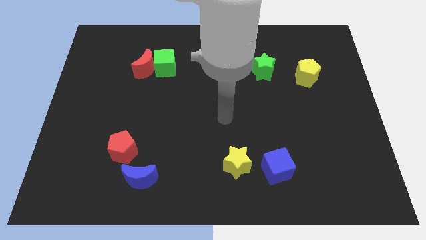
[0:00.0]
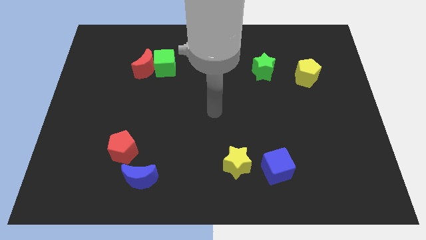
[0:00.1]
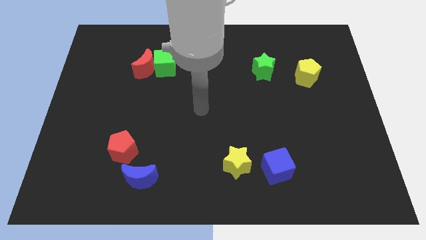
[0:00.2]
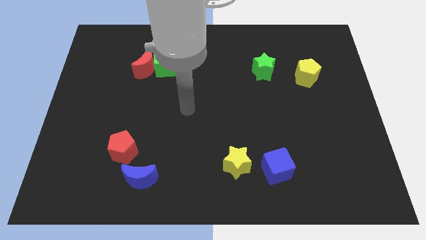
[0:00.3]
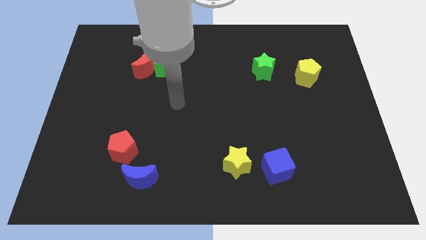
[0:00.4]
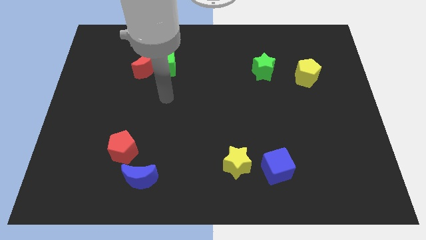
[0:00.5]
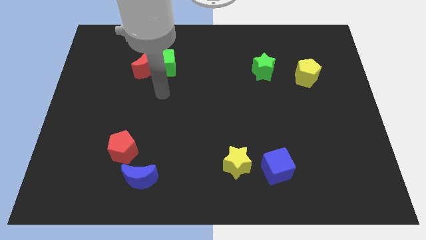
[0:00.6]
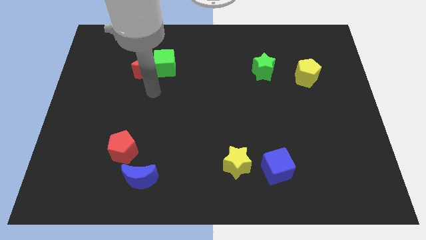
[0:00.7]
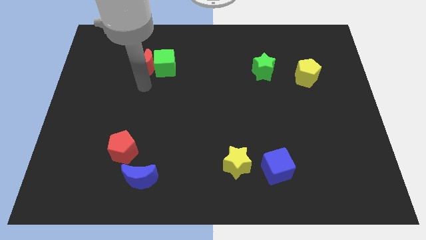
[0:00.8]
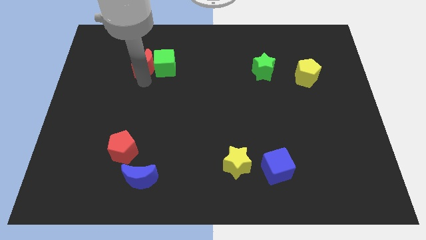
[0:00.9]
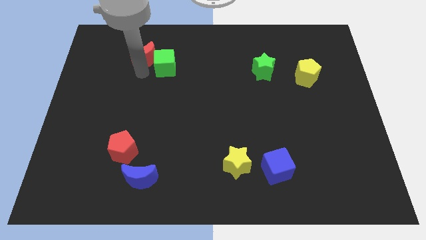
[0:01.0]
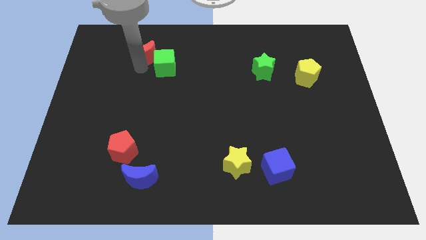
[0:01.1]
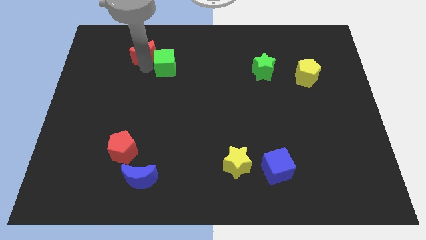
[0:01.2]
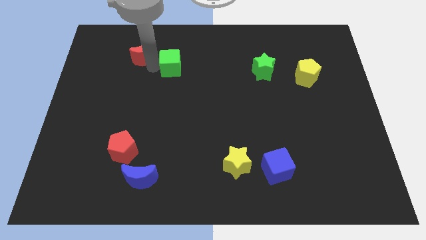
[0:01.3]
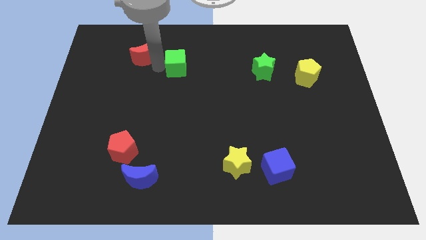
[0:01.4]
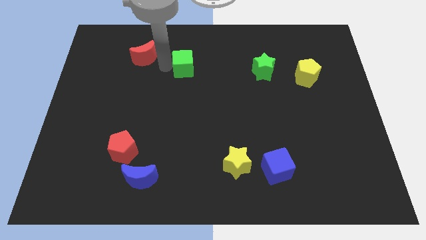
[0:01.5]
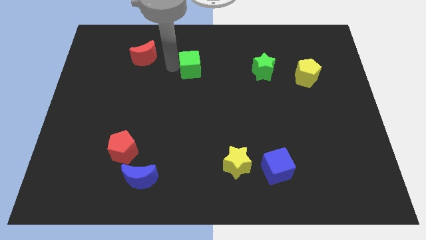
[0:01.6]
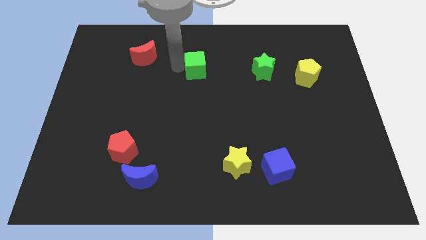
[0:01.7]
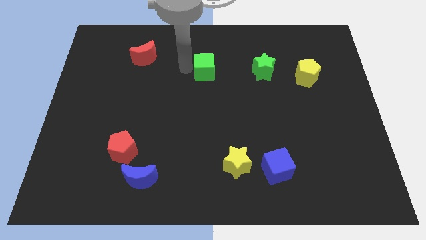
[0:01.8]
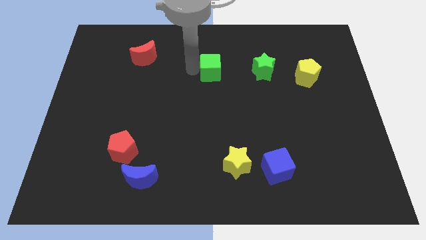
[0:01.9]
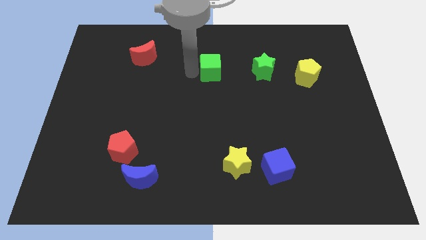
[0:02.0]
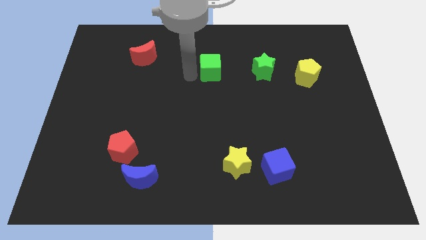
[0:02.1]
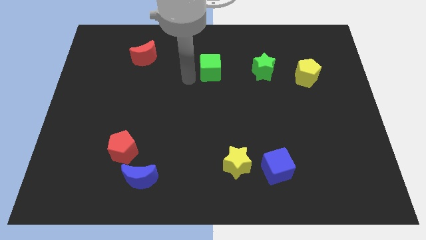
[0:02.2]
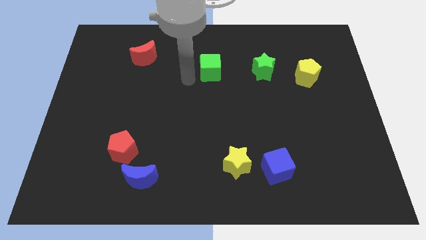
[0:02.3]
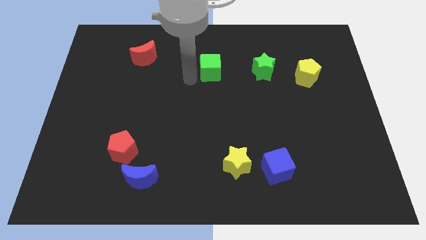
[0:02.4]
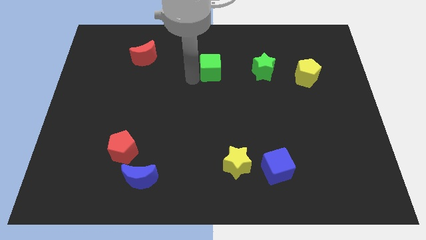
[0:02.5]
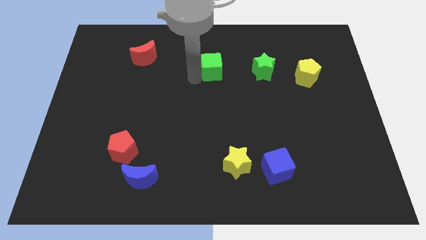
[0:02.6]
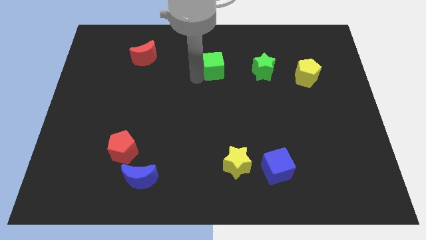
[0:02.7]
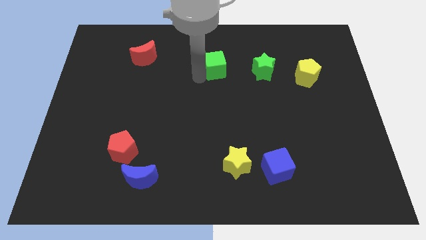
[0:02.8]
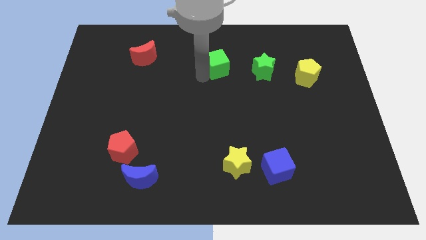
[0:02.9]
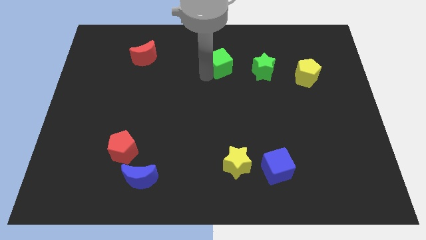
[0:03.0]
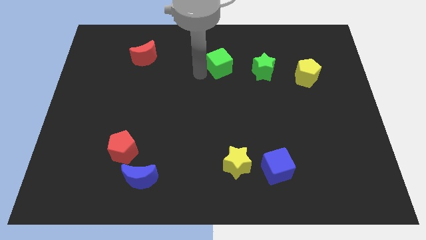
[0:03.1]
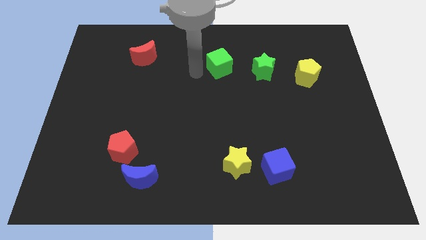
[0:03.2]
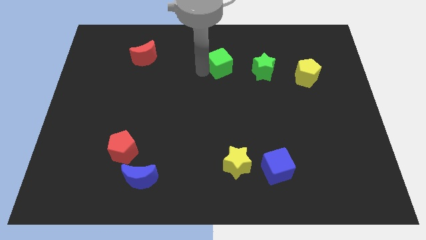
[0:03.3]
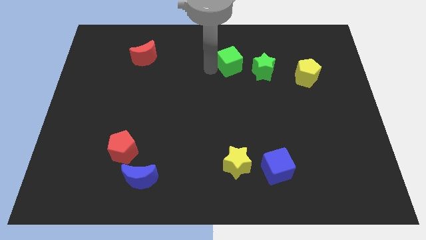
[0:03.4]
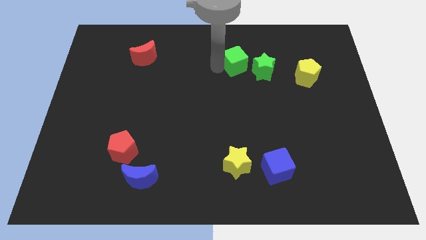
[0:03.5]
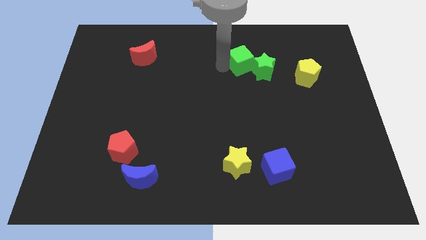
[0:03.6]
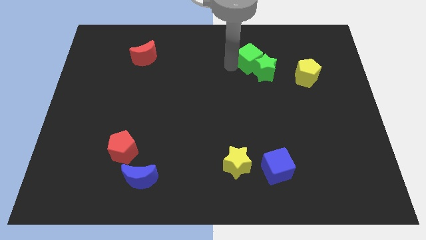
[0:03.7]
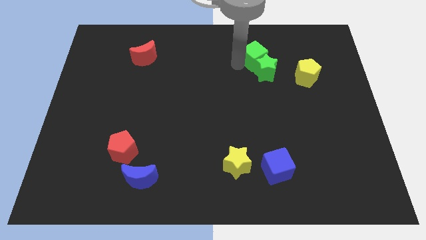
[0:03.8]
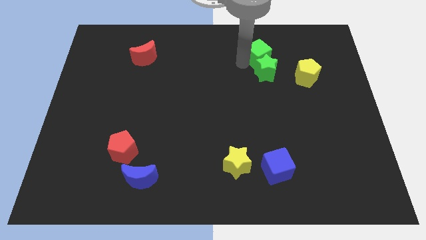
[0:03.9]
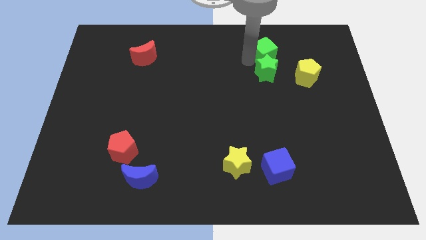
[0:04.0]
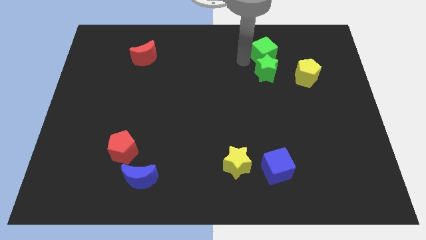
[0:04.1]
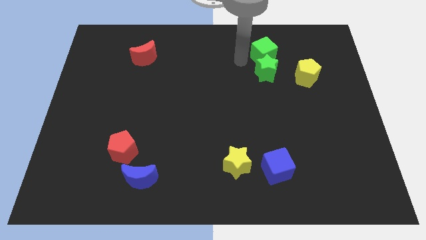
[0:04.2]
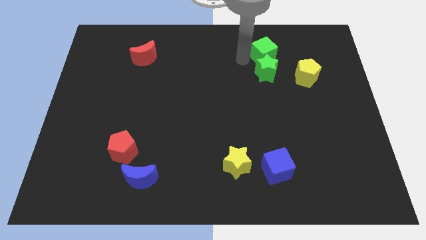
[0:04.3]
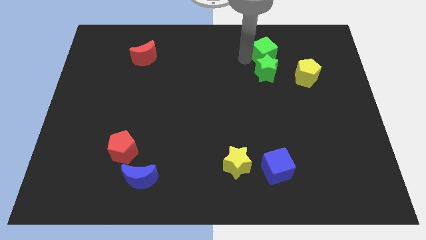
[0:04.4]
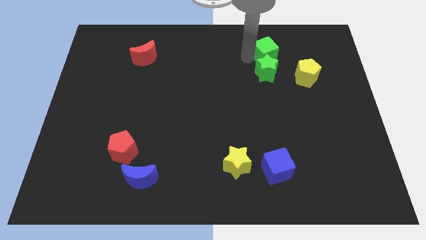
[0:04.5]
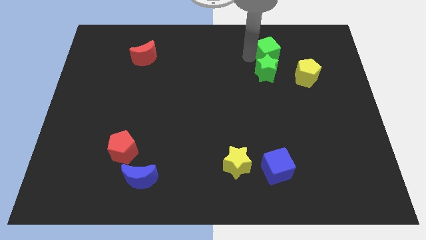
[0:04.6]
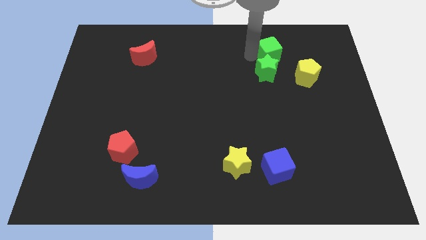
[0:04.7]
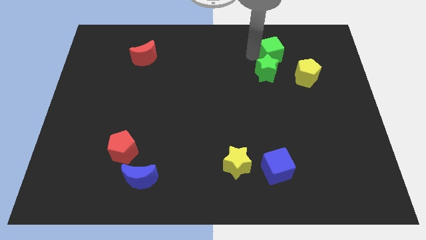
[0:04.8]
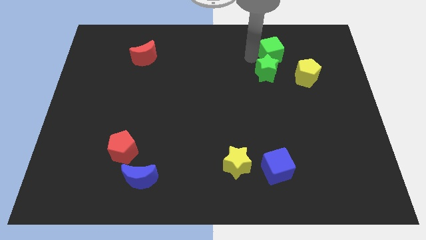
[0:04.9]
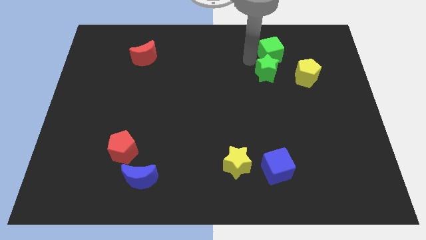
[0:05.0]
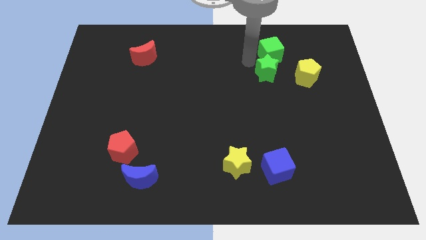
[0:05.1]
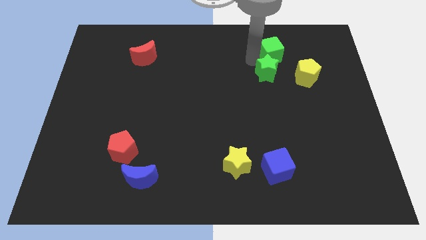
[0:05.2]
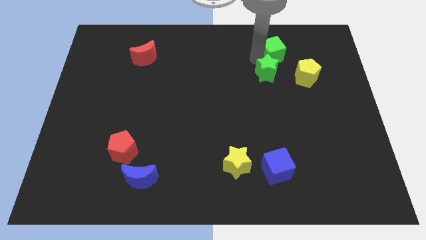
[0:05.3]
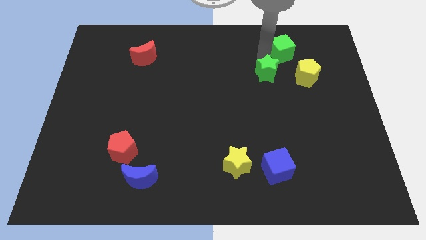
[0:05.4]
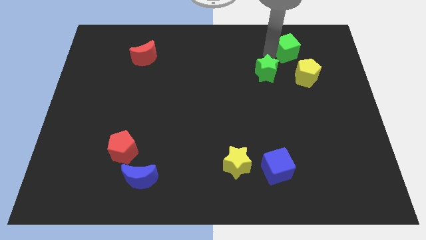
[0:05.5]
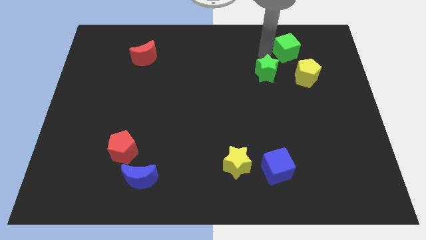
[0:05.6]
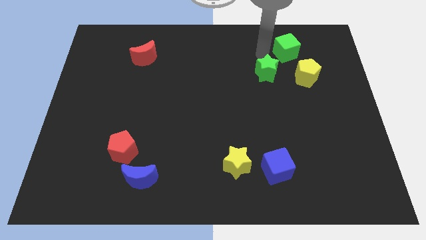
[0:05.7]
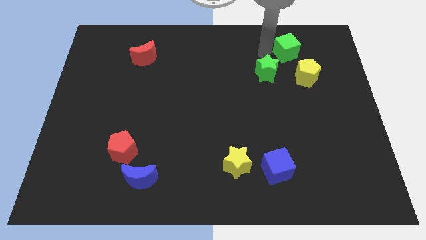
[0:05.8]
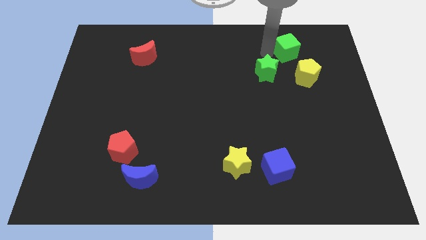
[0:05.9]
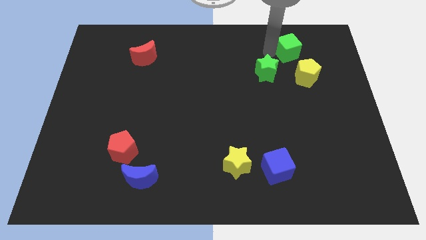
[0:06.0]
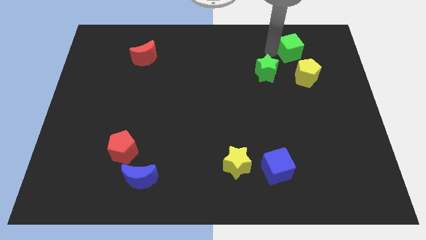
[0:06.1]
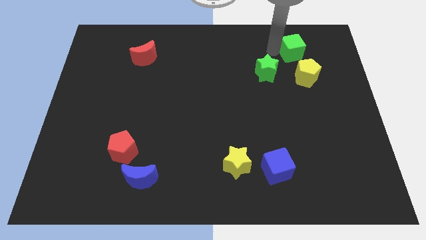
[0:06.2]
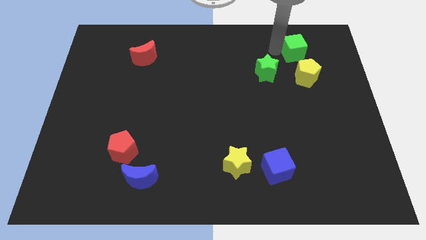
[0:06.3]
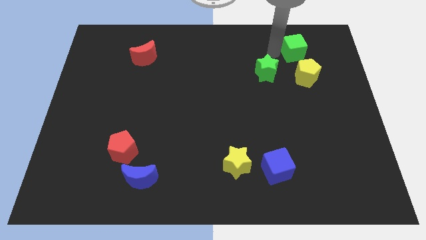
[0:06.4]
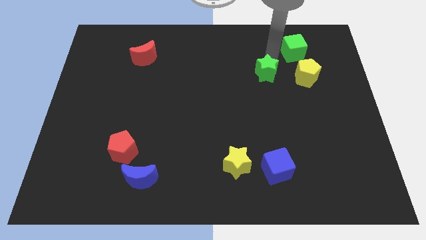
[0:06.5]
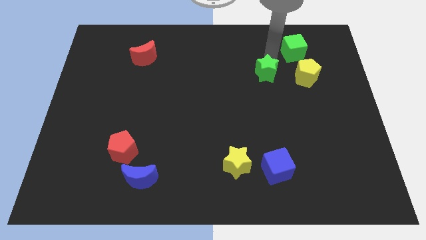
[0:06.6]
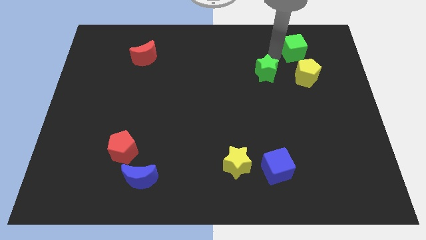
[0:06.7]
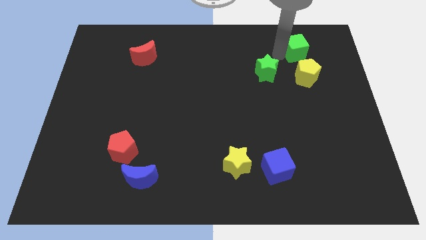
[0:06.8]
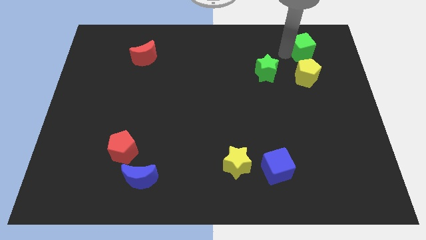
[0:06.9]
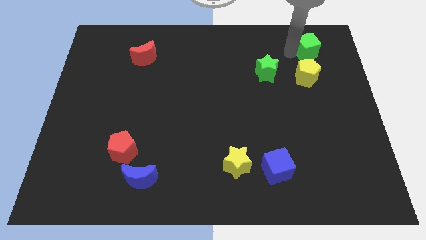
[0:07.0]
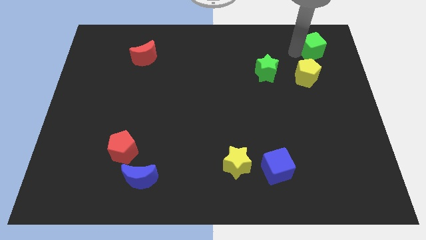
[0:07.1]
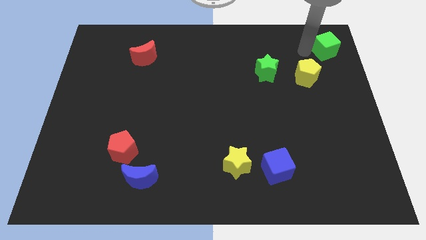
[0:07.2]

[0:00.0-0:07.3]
move the green cube to the upper right corner
